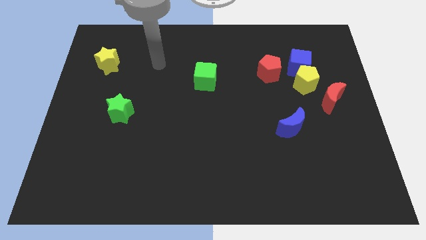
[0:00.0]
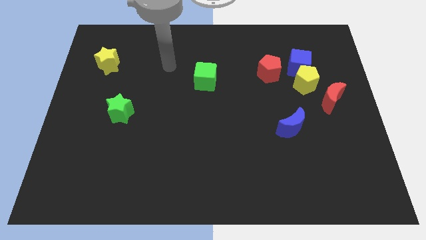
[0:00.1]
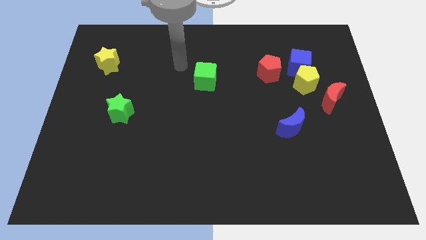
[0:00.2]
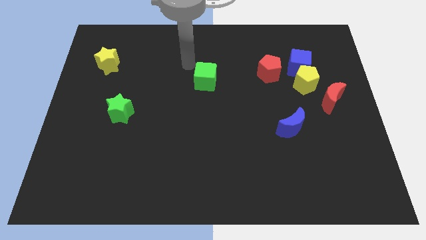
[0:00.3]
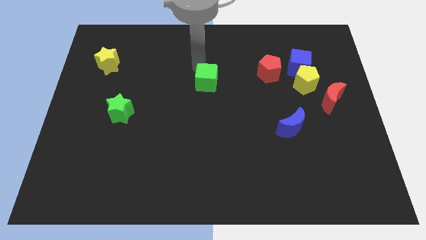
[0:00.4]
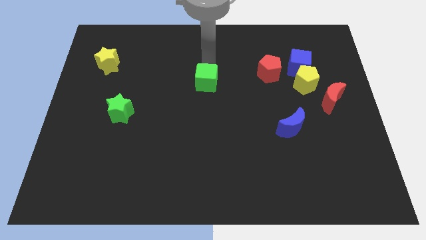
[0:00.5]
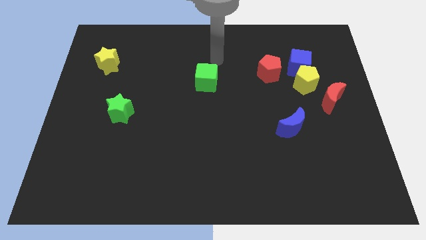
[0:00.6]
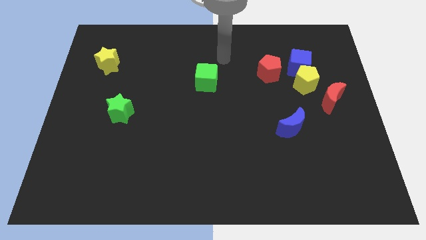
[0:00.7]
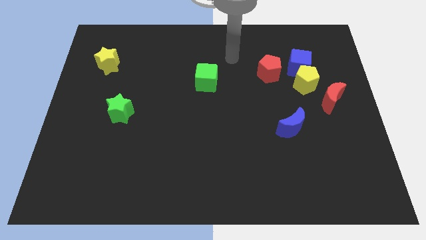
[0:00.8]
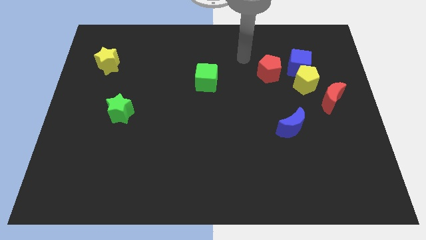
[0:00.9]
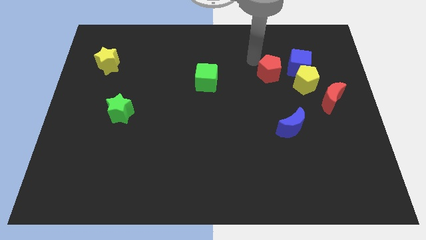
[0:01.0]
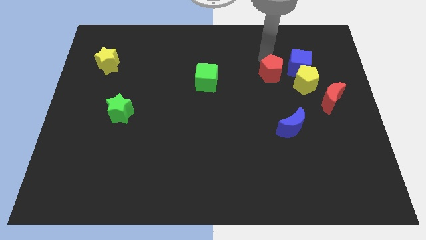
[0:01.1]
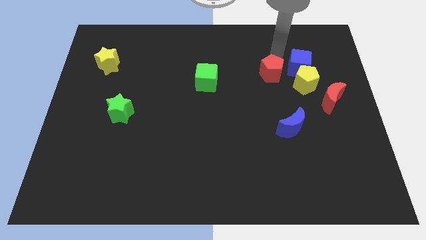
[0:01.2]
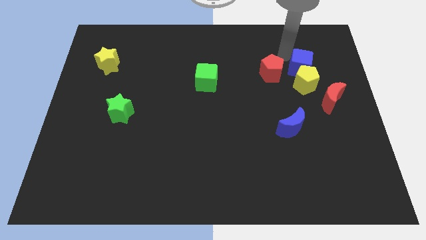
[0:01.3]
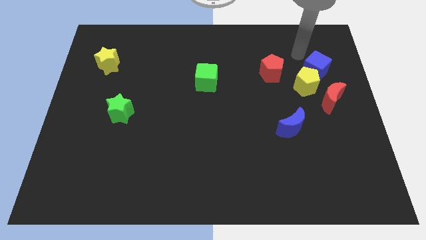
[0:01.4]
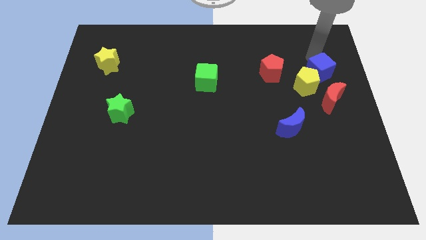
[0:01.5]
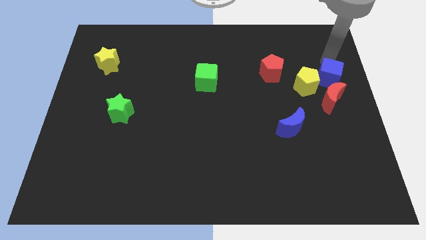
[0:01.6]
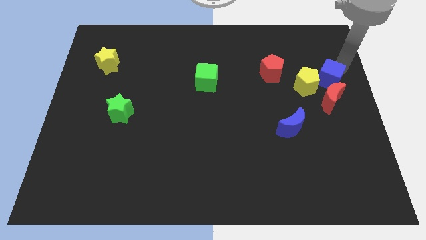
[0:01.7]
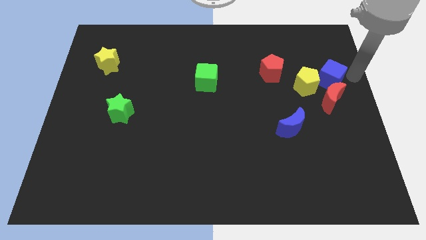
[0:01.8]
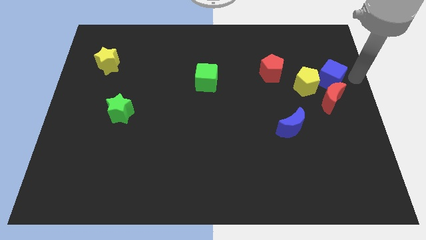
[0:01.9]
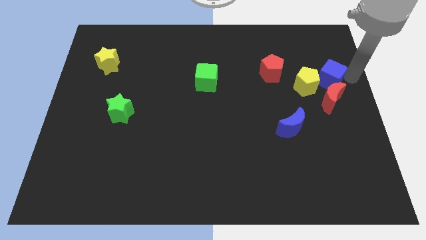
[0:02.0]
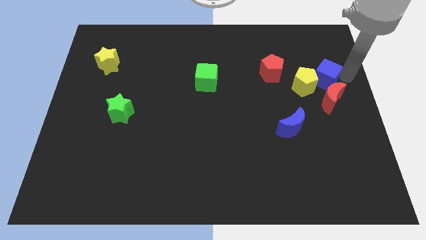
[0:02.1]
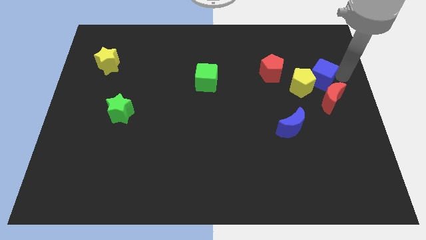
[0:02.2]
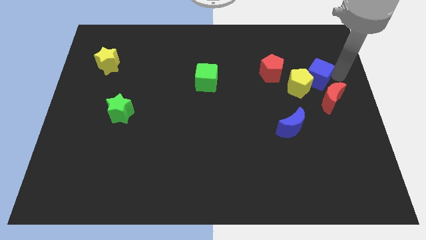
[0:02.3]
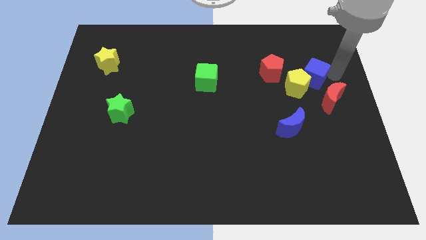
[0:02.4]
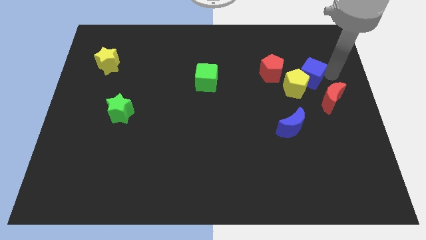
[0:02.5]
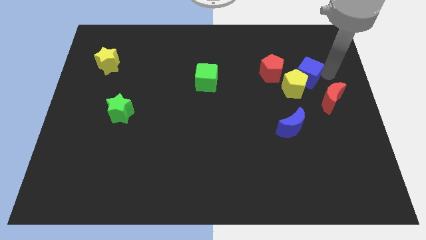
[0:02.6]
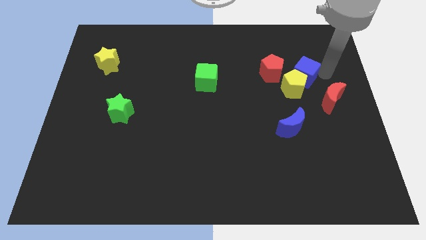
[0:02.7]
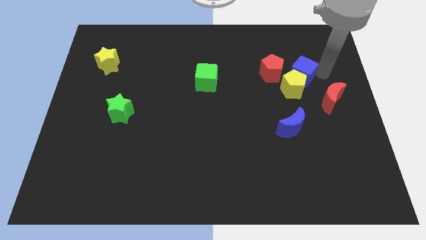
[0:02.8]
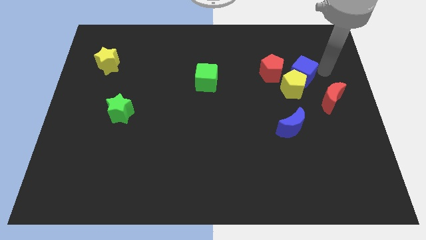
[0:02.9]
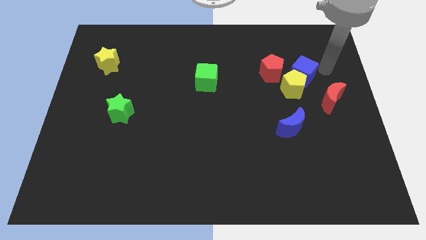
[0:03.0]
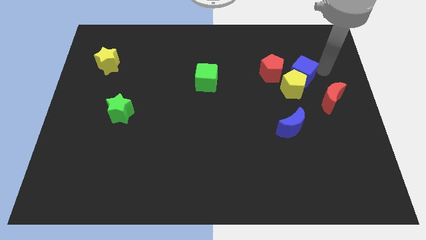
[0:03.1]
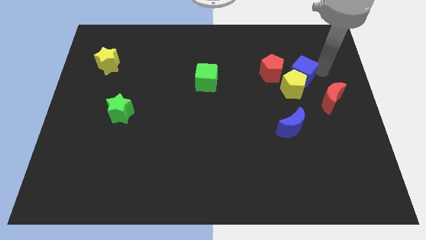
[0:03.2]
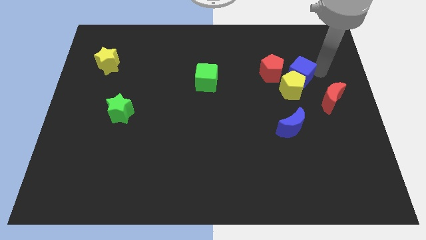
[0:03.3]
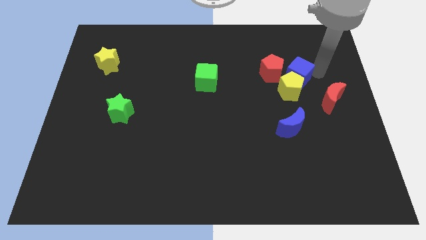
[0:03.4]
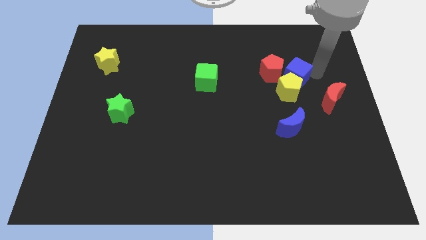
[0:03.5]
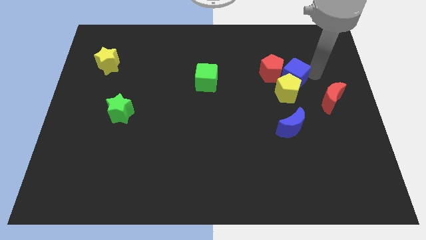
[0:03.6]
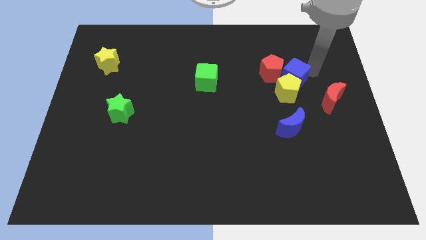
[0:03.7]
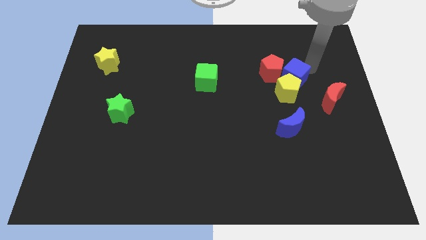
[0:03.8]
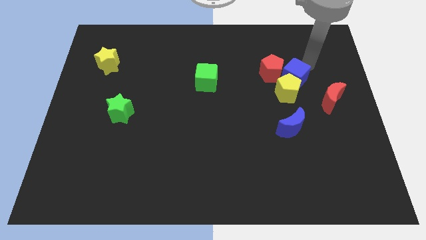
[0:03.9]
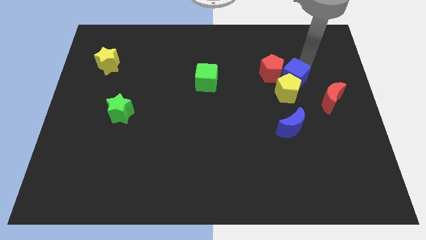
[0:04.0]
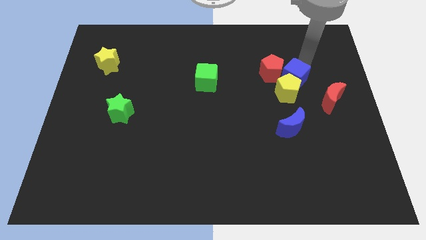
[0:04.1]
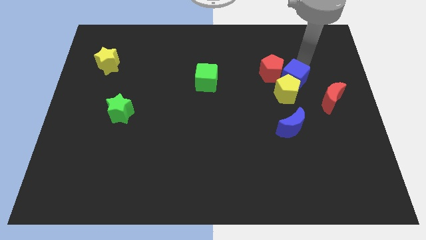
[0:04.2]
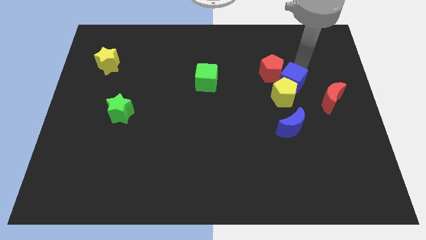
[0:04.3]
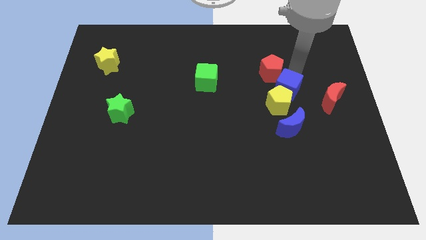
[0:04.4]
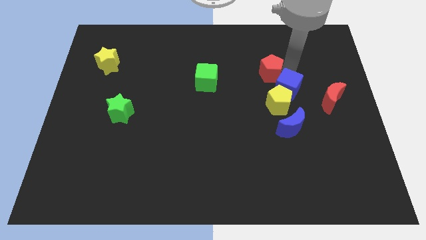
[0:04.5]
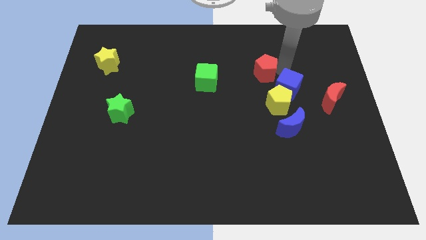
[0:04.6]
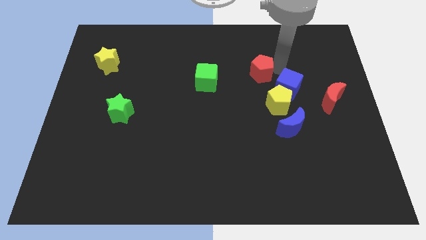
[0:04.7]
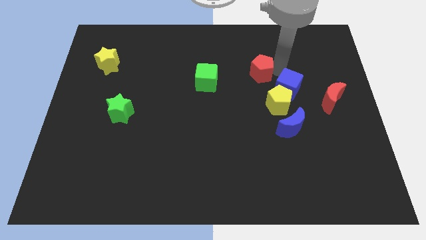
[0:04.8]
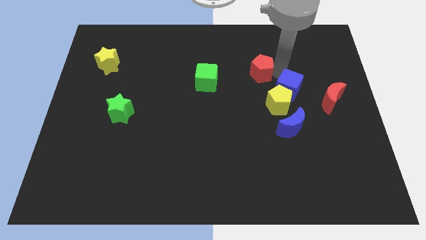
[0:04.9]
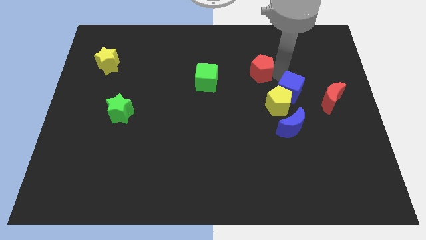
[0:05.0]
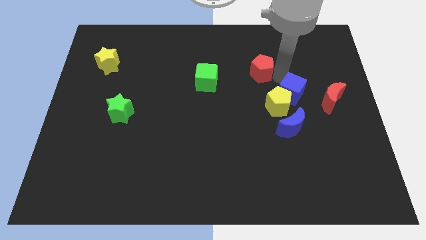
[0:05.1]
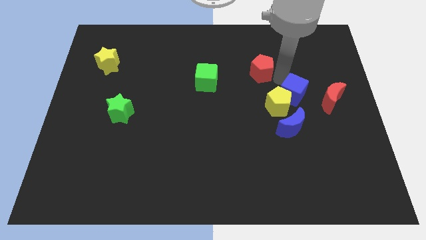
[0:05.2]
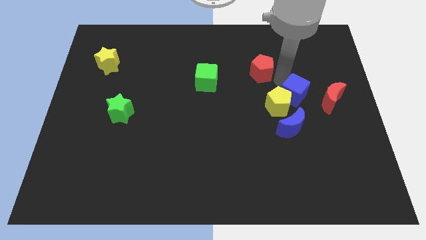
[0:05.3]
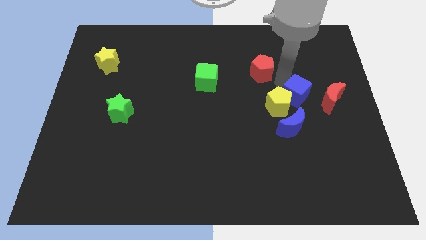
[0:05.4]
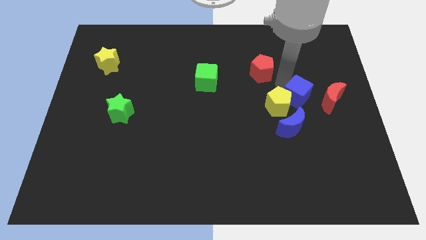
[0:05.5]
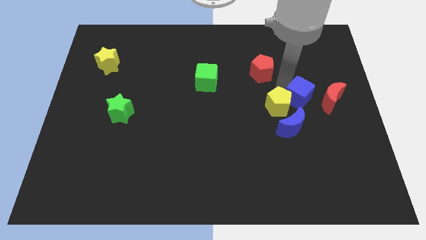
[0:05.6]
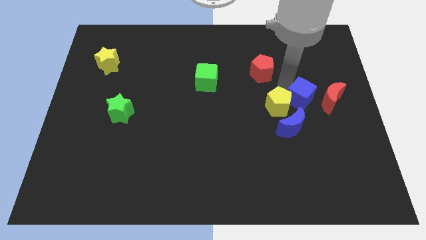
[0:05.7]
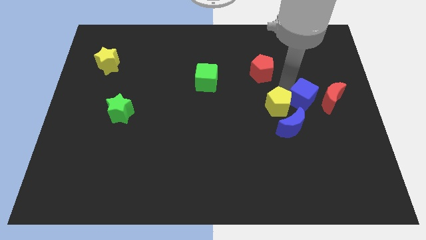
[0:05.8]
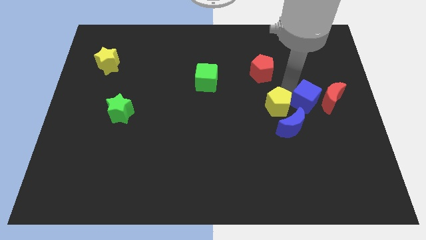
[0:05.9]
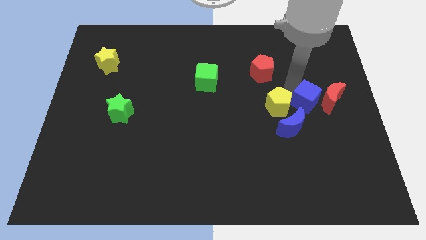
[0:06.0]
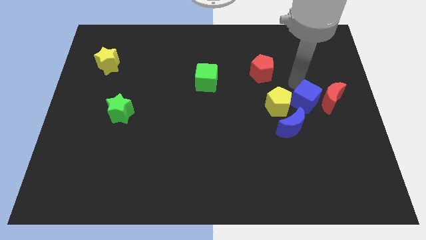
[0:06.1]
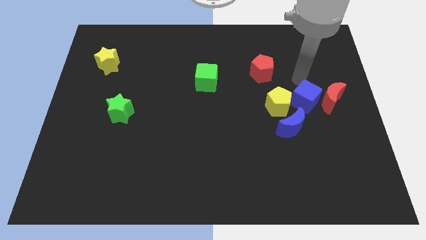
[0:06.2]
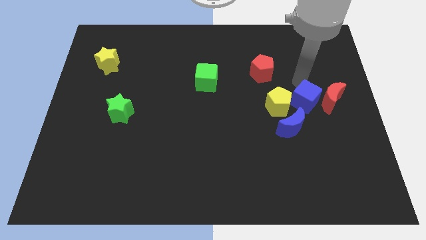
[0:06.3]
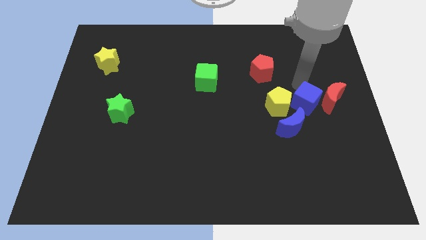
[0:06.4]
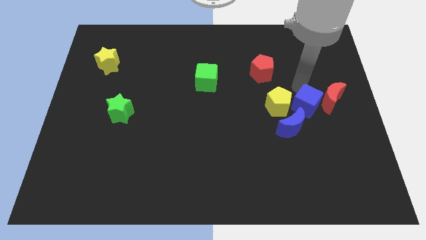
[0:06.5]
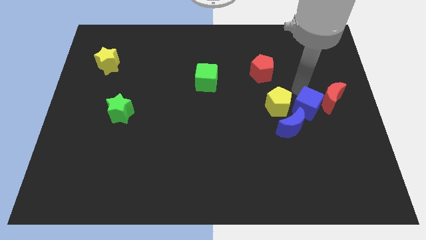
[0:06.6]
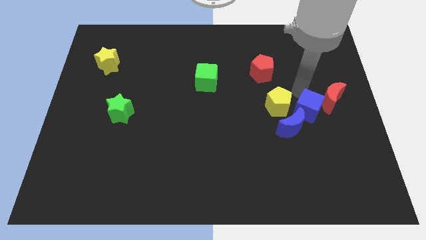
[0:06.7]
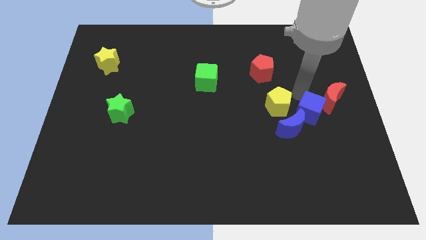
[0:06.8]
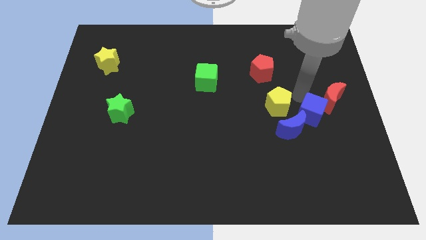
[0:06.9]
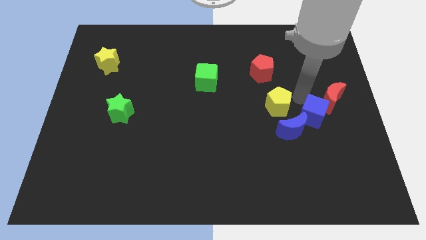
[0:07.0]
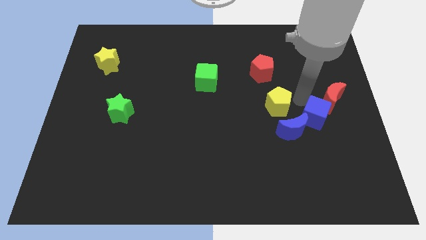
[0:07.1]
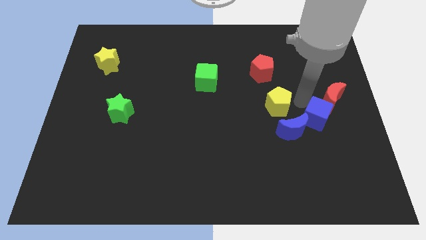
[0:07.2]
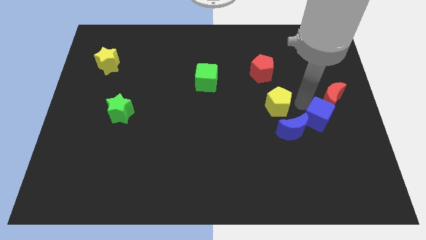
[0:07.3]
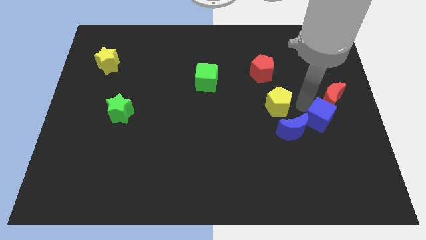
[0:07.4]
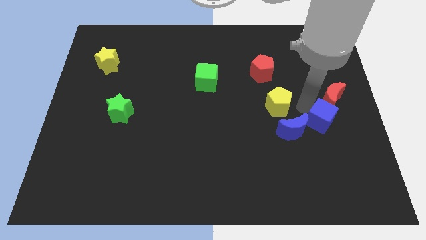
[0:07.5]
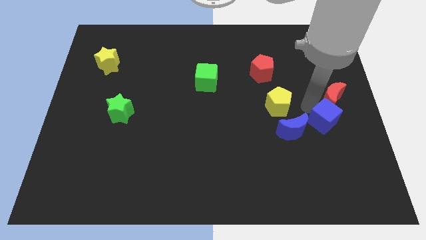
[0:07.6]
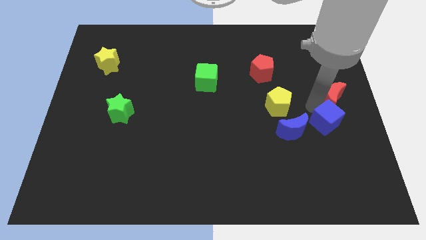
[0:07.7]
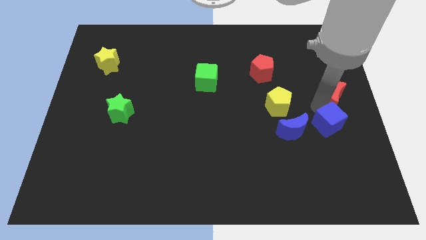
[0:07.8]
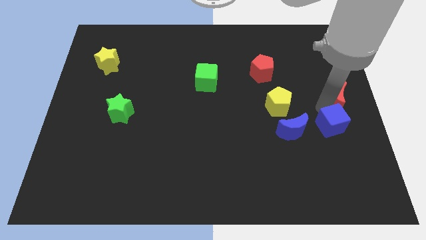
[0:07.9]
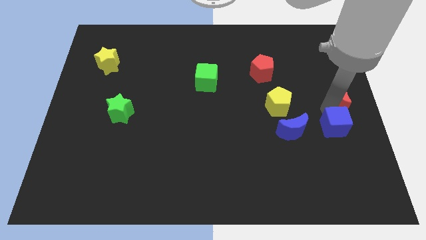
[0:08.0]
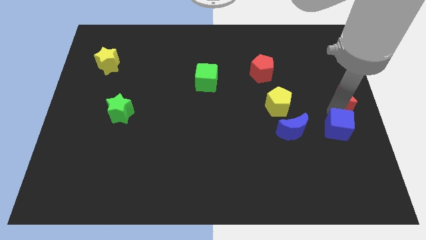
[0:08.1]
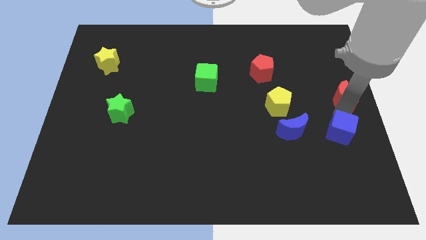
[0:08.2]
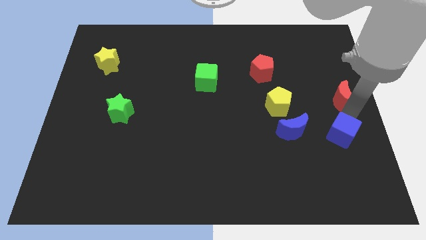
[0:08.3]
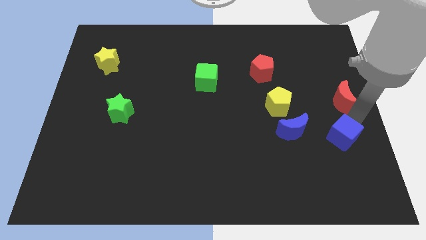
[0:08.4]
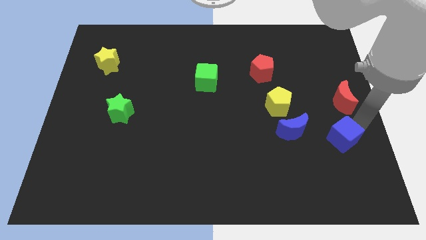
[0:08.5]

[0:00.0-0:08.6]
slide the blue cube downwards
